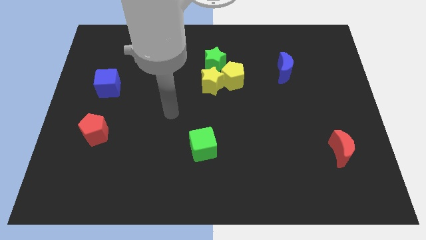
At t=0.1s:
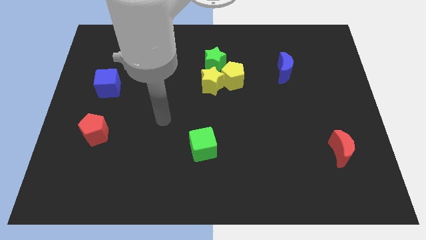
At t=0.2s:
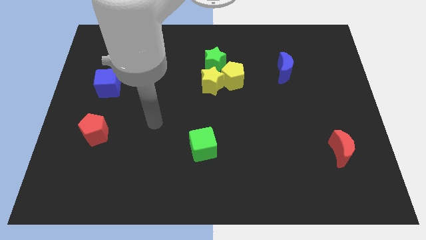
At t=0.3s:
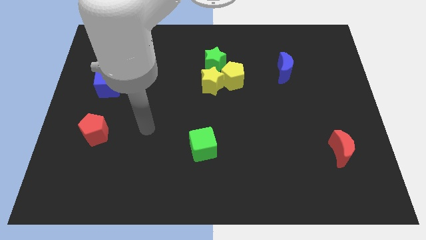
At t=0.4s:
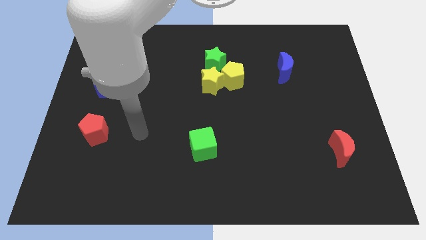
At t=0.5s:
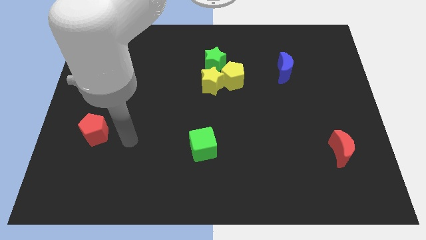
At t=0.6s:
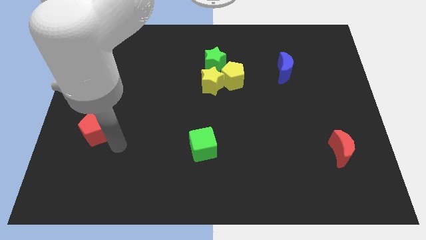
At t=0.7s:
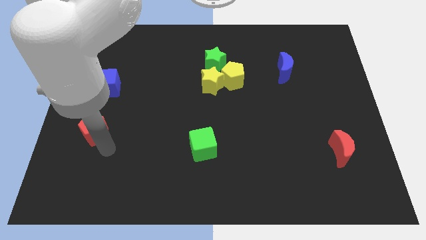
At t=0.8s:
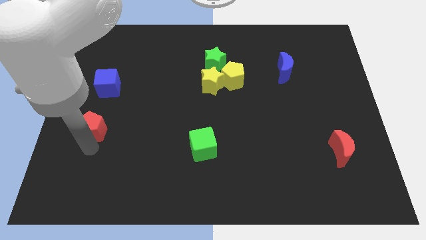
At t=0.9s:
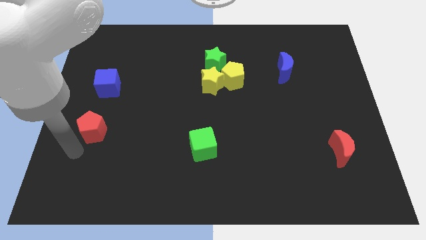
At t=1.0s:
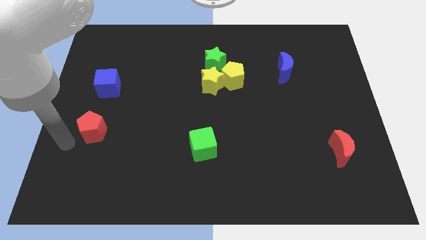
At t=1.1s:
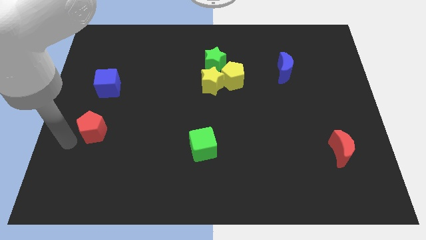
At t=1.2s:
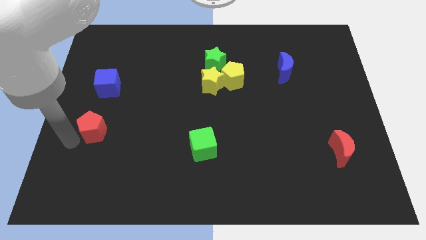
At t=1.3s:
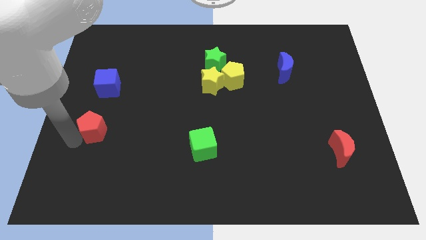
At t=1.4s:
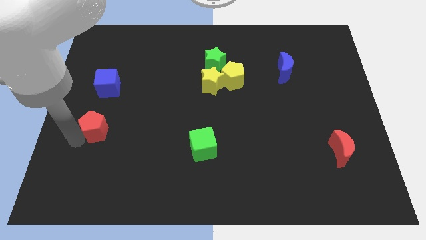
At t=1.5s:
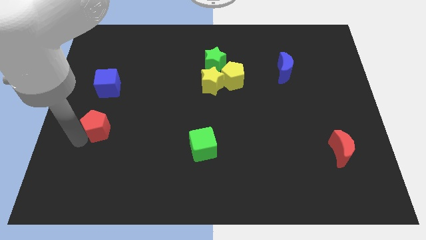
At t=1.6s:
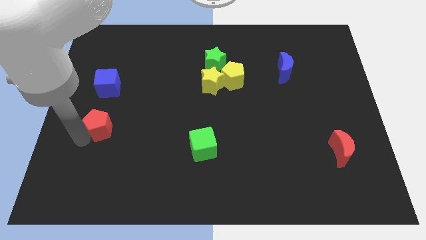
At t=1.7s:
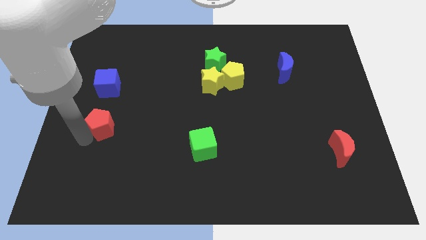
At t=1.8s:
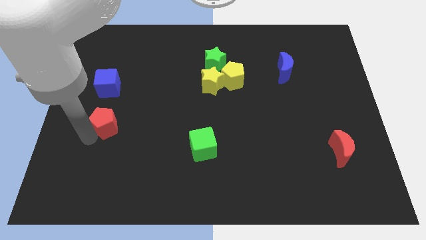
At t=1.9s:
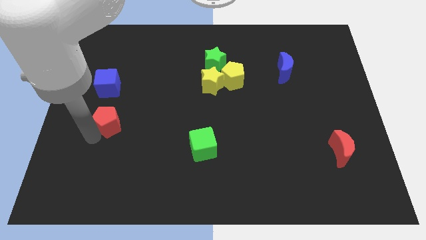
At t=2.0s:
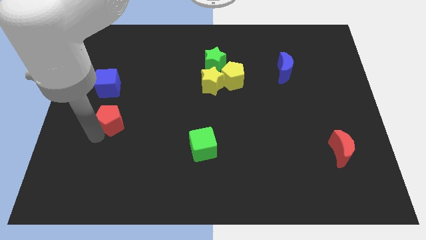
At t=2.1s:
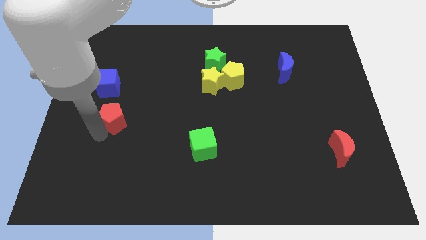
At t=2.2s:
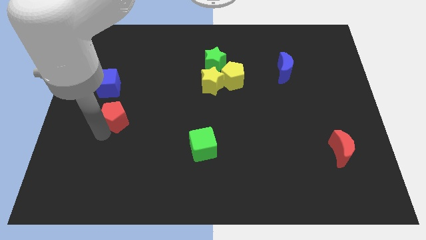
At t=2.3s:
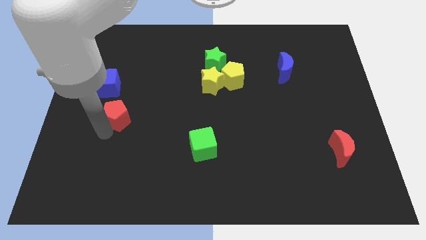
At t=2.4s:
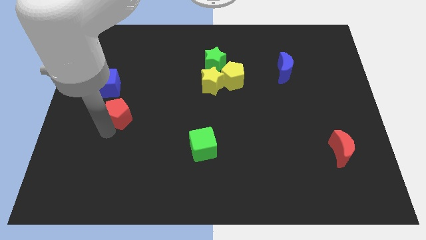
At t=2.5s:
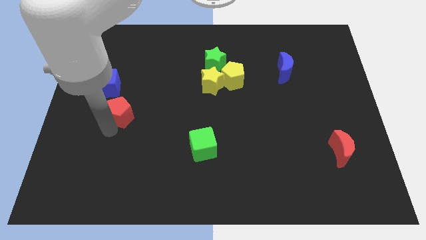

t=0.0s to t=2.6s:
slide the red pentagon up and right diagonally slightly

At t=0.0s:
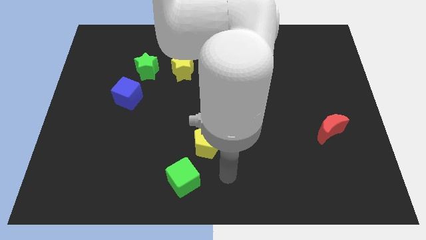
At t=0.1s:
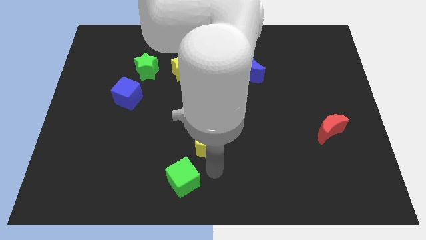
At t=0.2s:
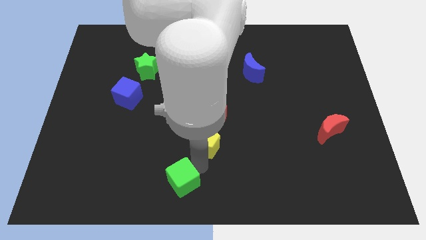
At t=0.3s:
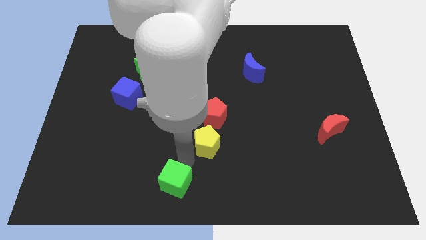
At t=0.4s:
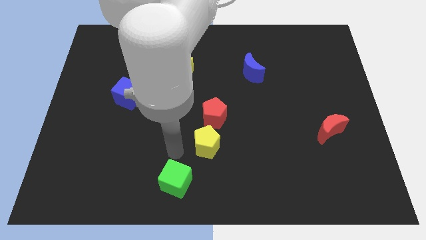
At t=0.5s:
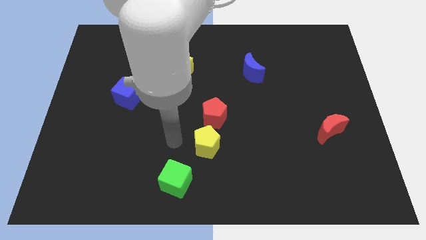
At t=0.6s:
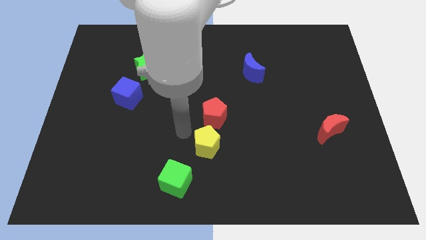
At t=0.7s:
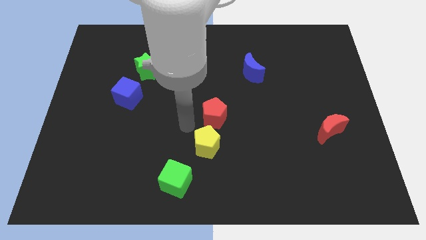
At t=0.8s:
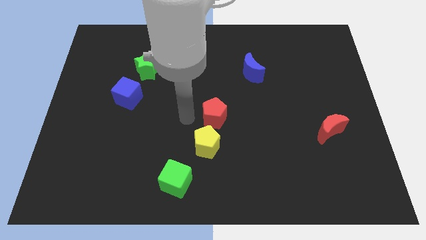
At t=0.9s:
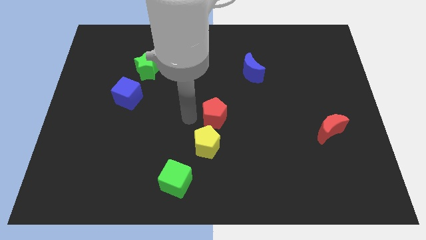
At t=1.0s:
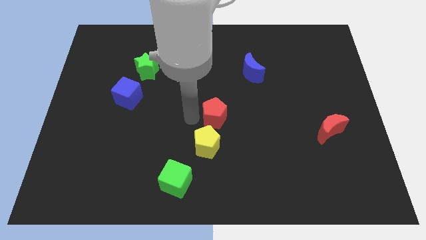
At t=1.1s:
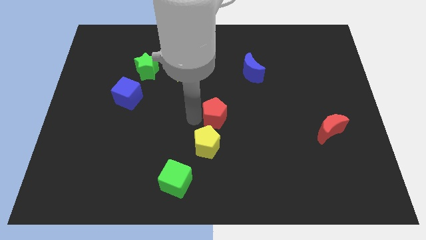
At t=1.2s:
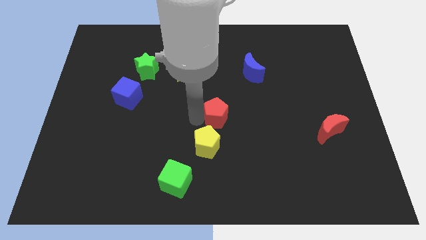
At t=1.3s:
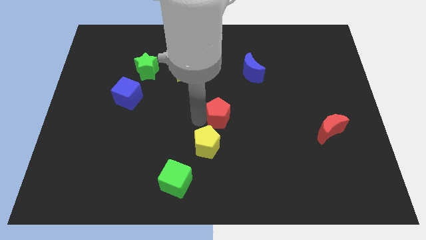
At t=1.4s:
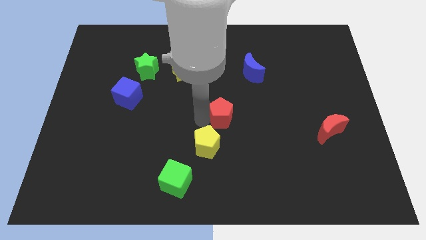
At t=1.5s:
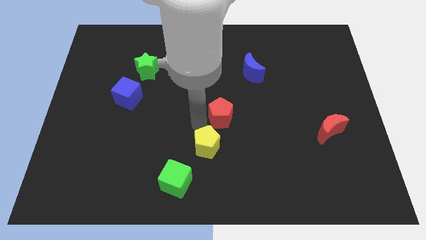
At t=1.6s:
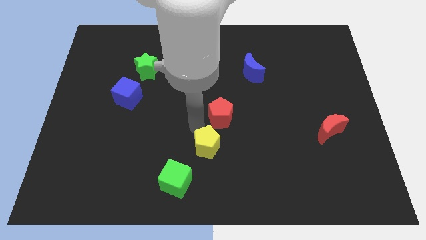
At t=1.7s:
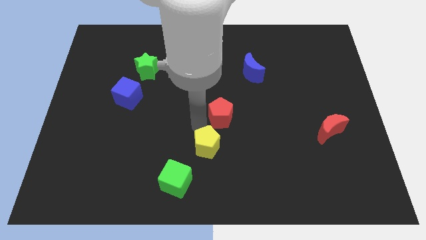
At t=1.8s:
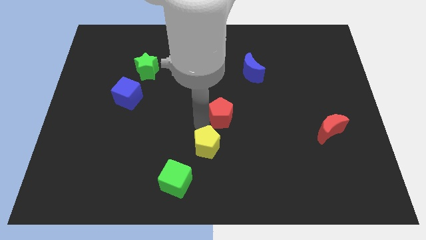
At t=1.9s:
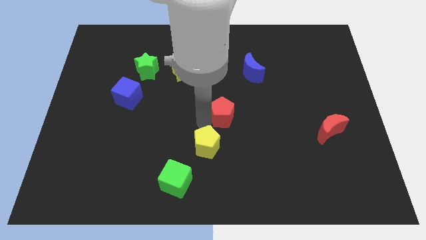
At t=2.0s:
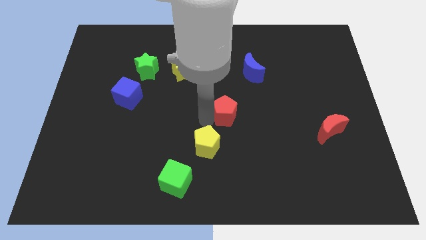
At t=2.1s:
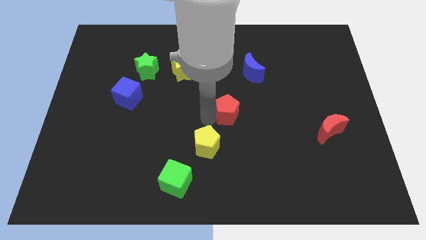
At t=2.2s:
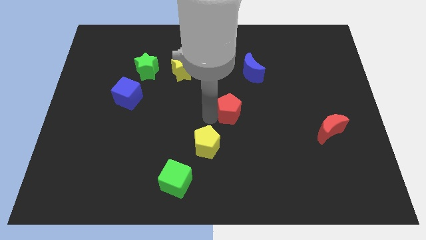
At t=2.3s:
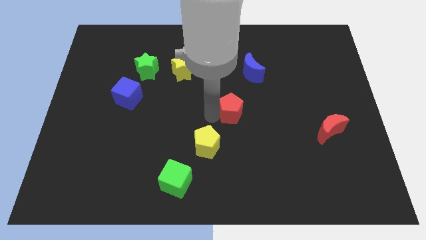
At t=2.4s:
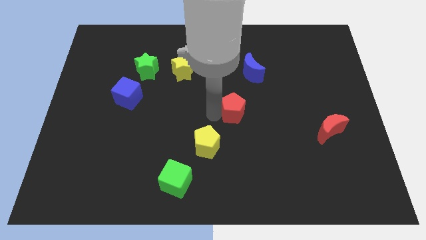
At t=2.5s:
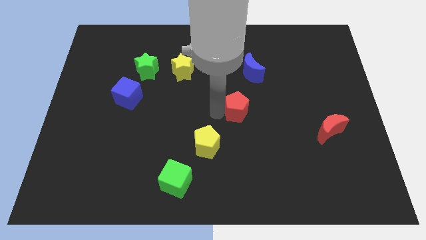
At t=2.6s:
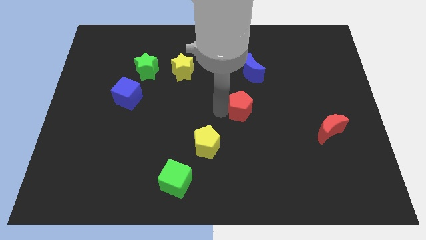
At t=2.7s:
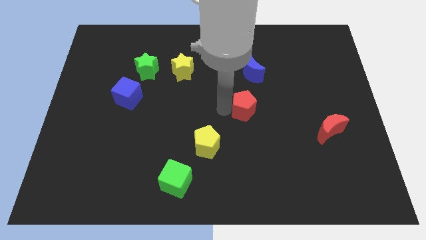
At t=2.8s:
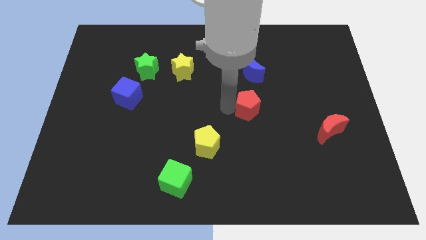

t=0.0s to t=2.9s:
move the red pentagon somewhat upwards and then to the right

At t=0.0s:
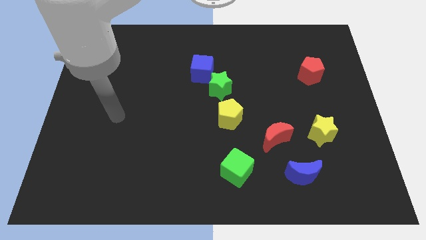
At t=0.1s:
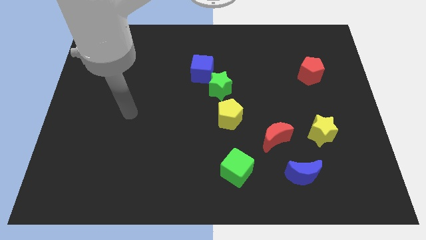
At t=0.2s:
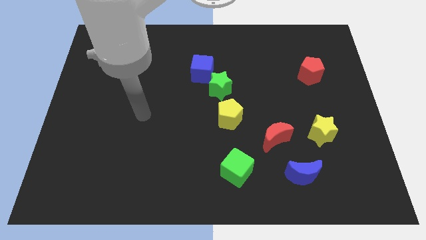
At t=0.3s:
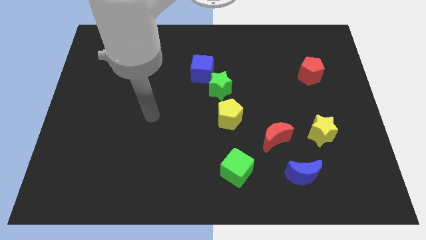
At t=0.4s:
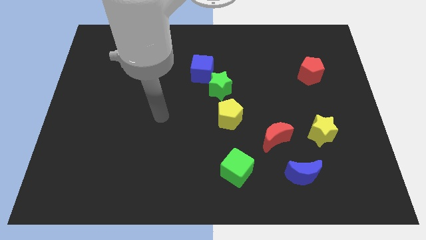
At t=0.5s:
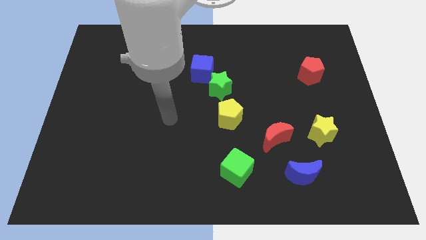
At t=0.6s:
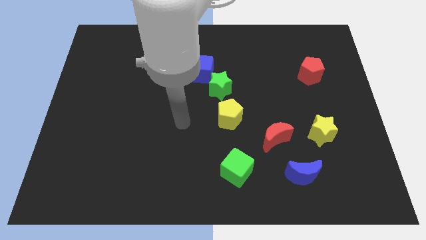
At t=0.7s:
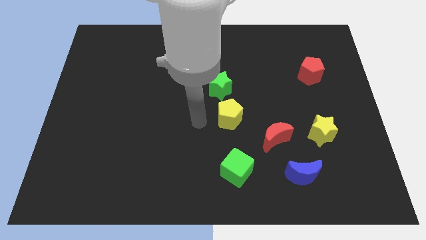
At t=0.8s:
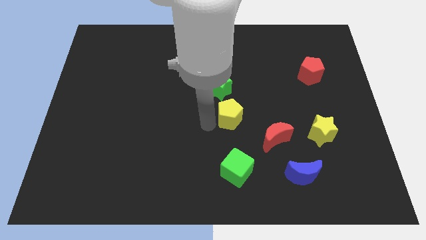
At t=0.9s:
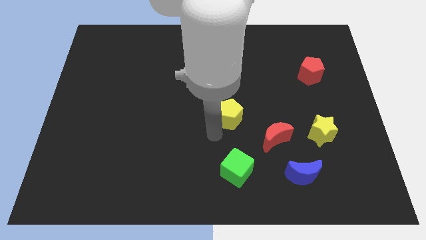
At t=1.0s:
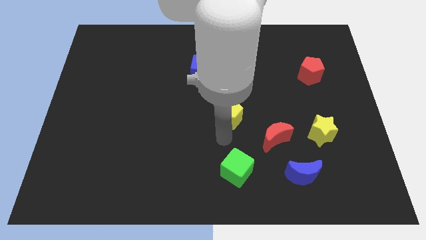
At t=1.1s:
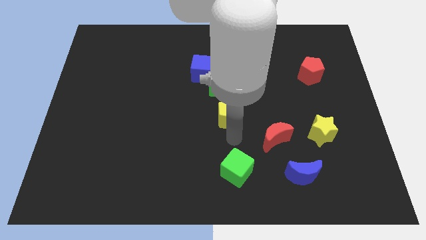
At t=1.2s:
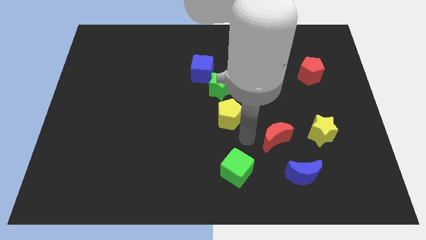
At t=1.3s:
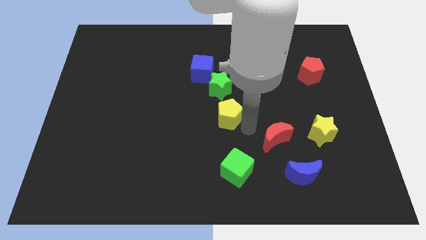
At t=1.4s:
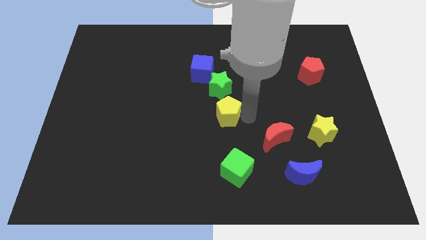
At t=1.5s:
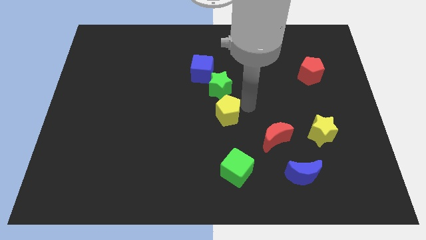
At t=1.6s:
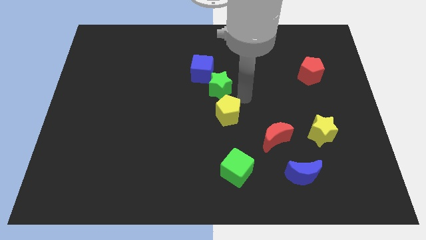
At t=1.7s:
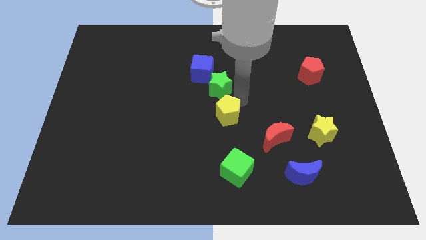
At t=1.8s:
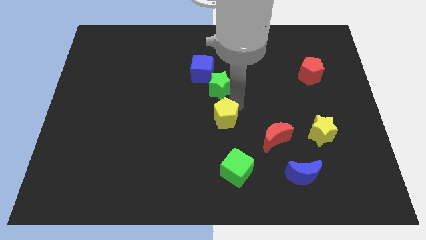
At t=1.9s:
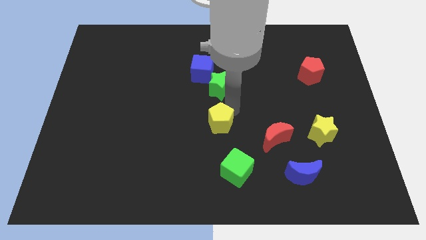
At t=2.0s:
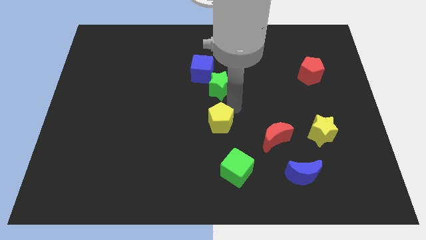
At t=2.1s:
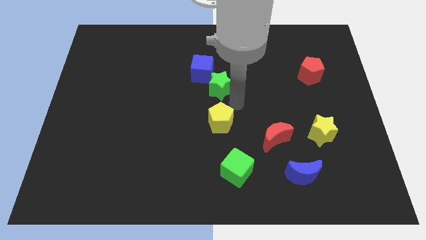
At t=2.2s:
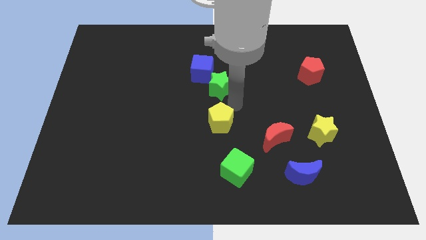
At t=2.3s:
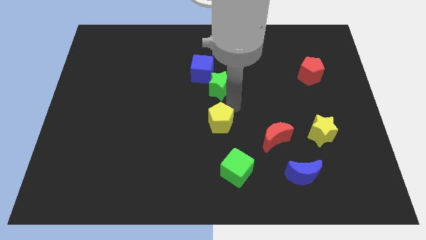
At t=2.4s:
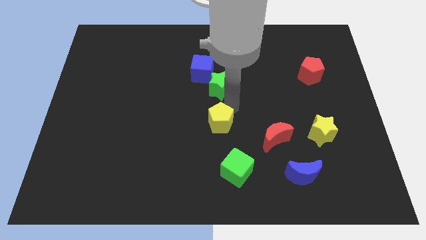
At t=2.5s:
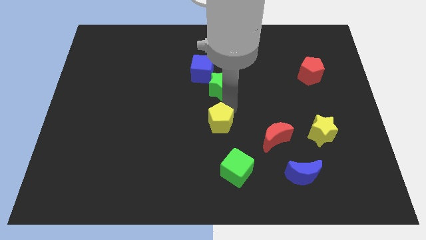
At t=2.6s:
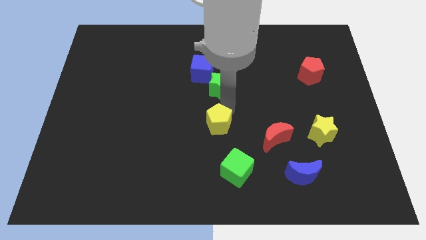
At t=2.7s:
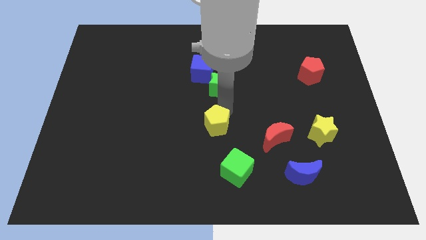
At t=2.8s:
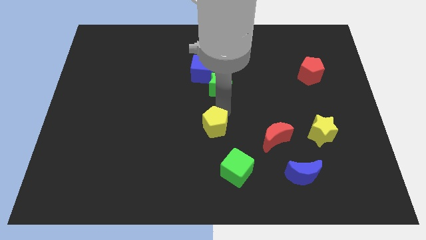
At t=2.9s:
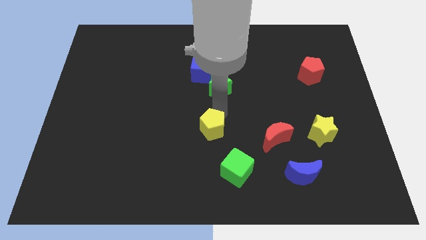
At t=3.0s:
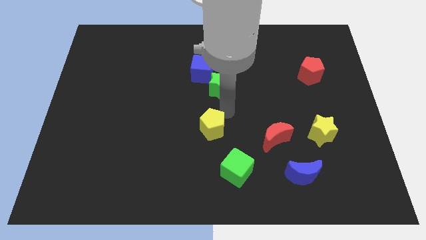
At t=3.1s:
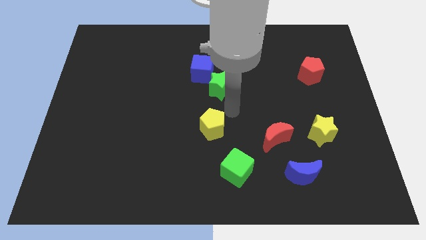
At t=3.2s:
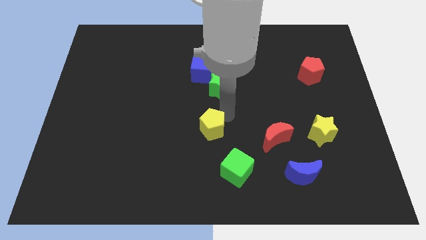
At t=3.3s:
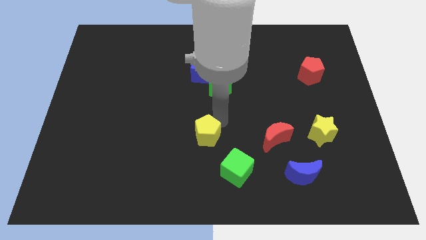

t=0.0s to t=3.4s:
move the yellow pentagon a little down and left diagonally
